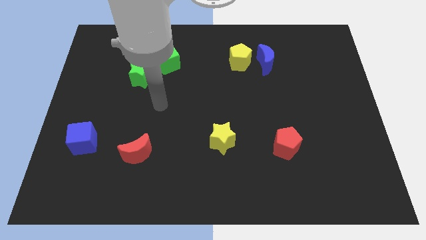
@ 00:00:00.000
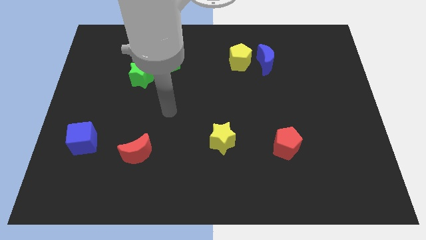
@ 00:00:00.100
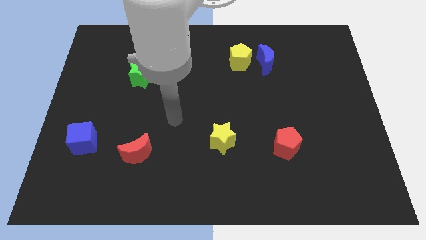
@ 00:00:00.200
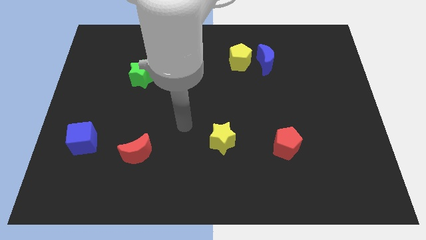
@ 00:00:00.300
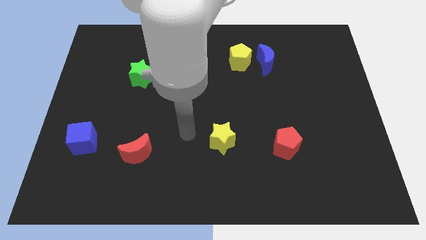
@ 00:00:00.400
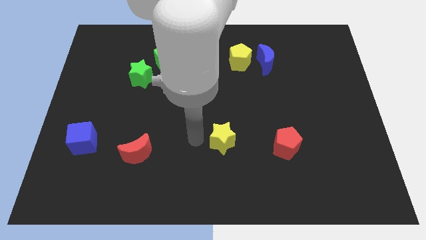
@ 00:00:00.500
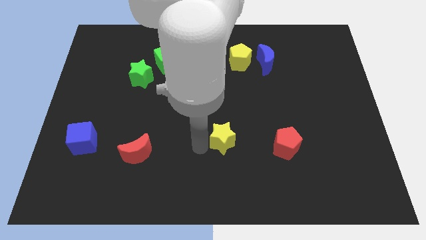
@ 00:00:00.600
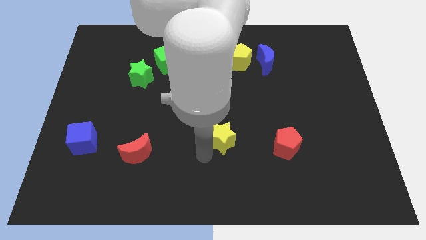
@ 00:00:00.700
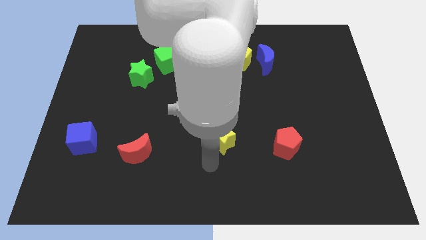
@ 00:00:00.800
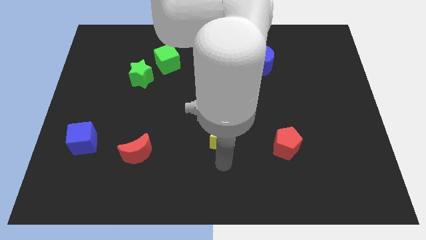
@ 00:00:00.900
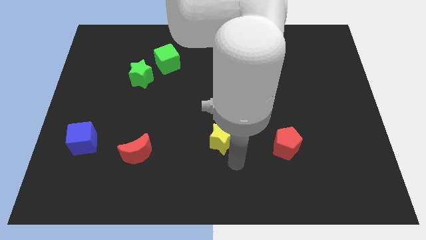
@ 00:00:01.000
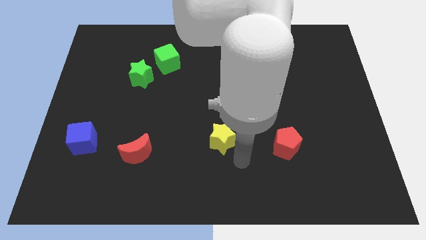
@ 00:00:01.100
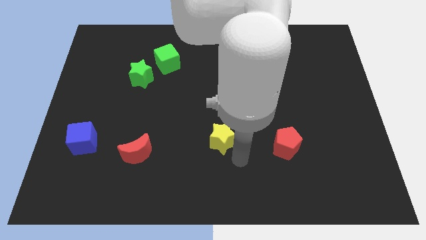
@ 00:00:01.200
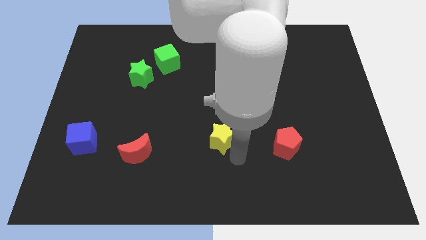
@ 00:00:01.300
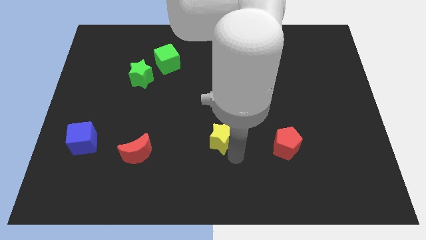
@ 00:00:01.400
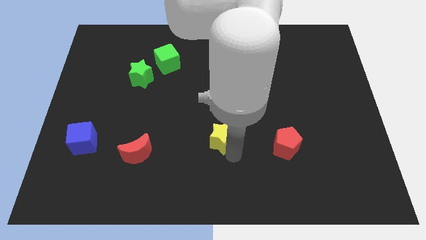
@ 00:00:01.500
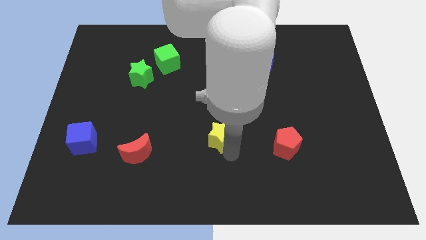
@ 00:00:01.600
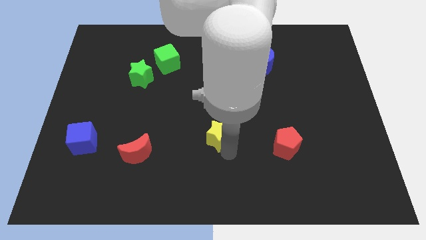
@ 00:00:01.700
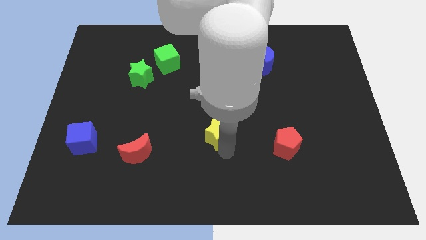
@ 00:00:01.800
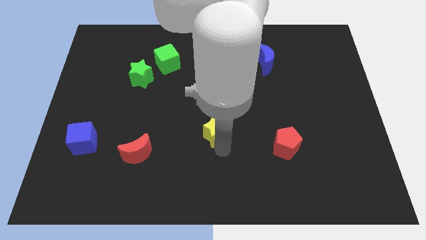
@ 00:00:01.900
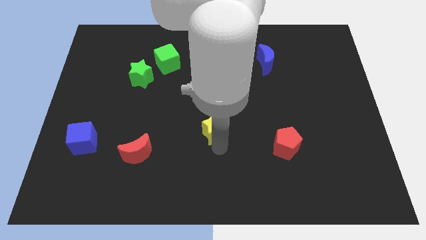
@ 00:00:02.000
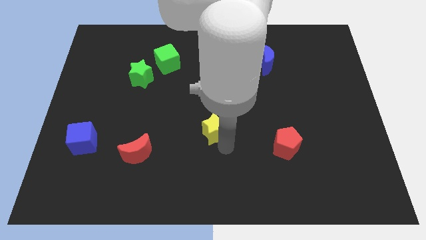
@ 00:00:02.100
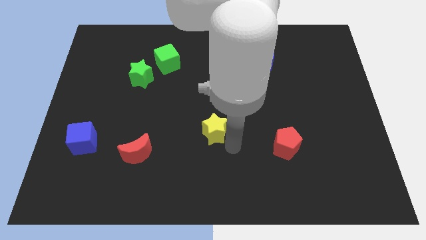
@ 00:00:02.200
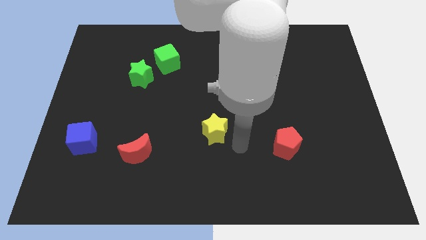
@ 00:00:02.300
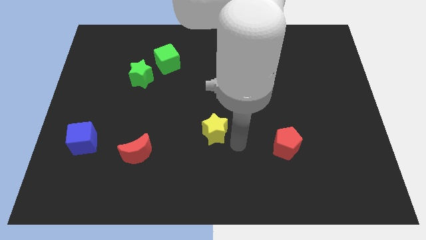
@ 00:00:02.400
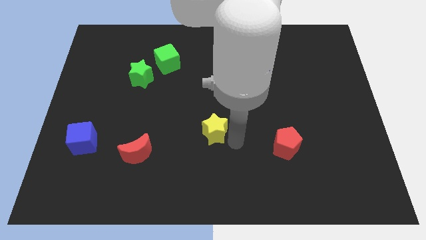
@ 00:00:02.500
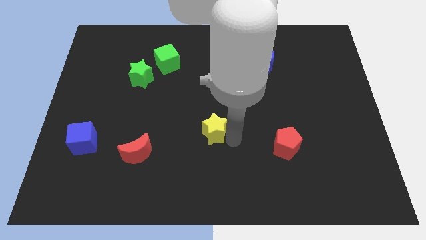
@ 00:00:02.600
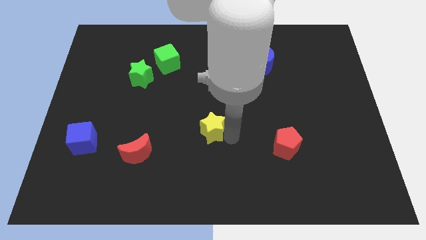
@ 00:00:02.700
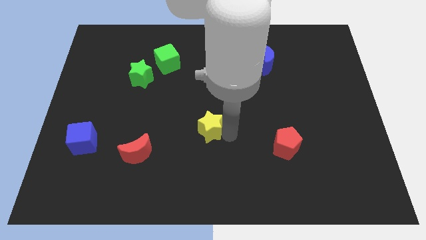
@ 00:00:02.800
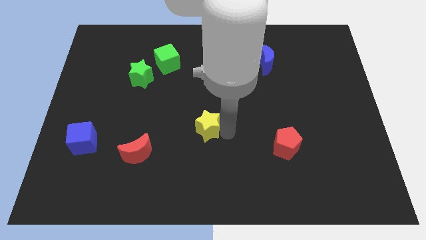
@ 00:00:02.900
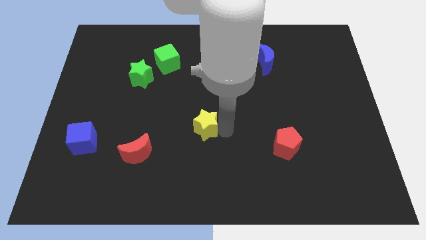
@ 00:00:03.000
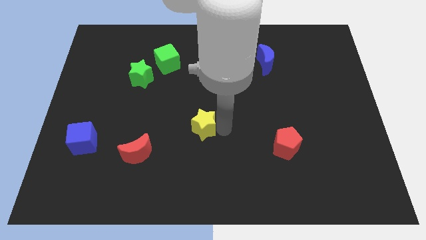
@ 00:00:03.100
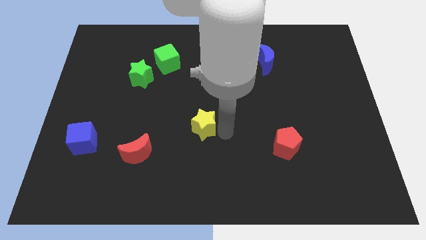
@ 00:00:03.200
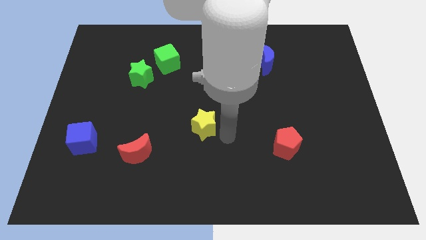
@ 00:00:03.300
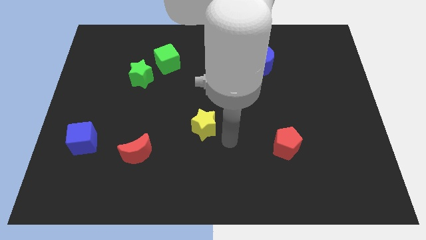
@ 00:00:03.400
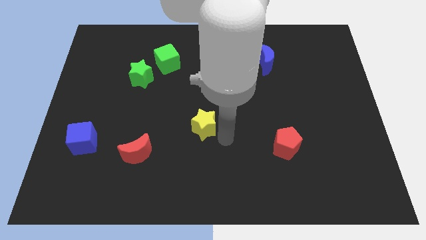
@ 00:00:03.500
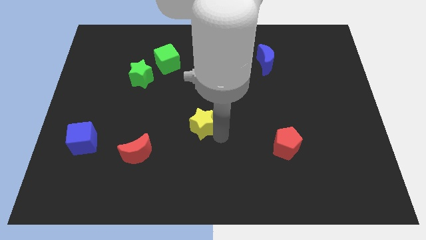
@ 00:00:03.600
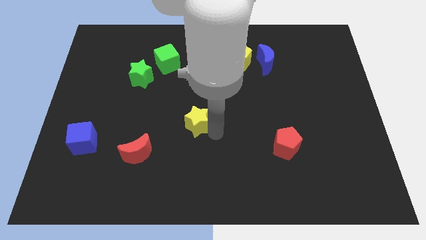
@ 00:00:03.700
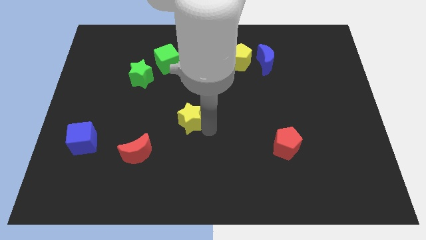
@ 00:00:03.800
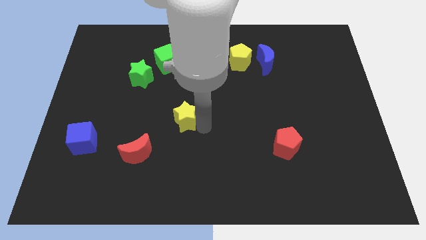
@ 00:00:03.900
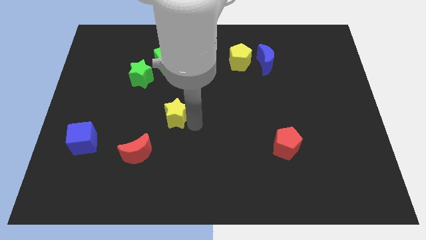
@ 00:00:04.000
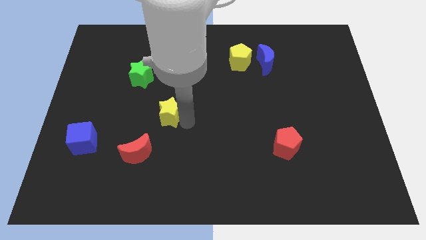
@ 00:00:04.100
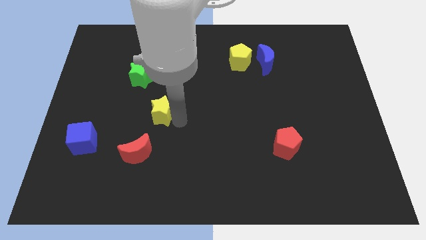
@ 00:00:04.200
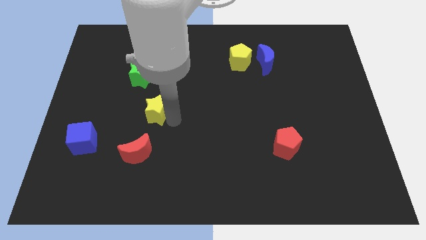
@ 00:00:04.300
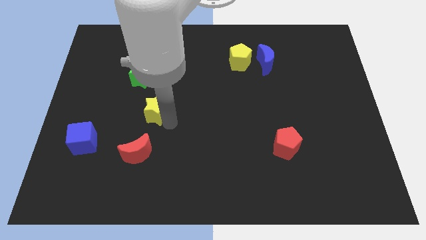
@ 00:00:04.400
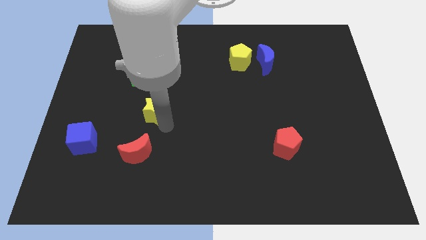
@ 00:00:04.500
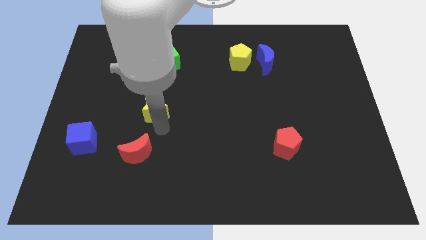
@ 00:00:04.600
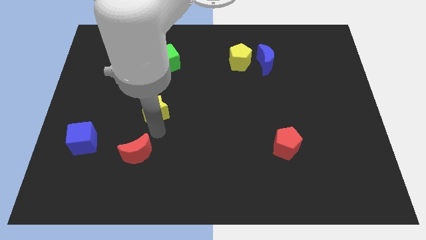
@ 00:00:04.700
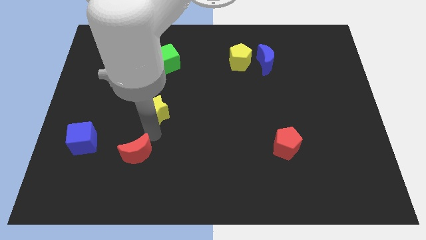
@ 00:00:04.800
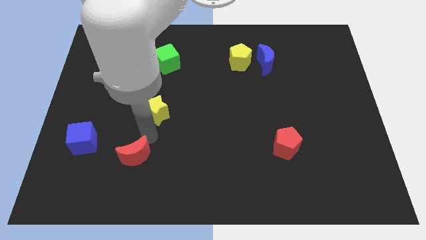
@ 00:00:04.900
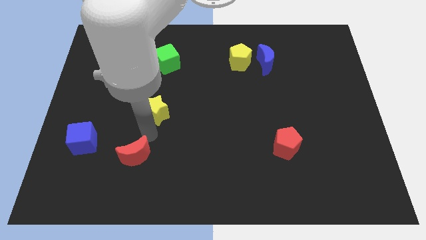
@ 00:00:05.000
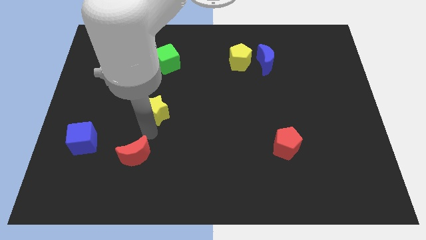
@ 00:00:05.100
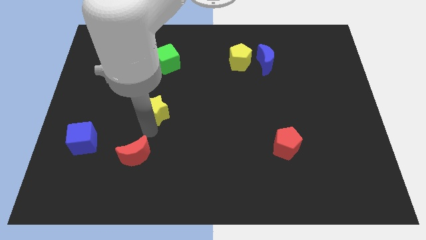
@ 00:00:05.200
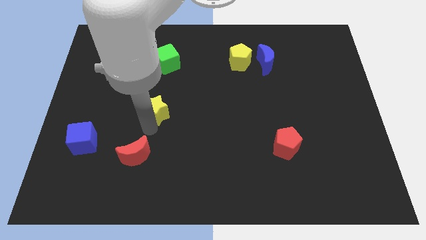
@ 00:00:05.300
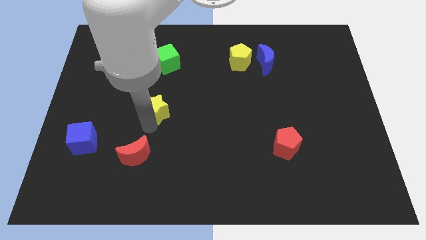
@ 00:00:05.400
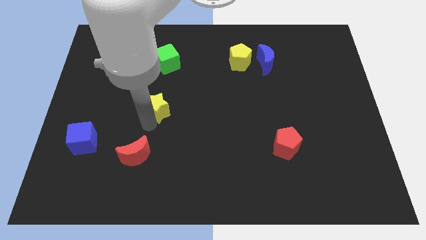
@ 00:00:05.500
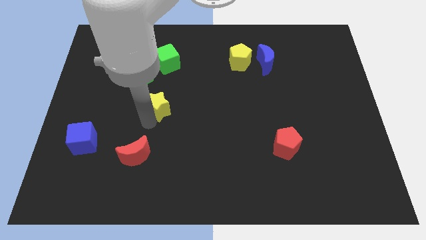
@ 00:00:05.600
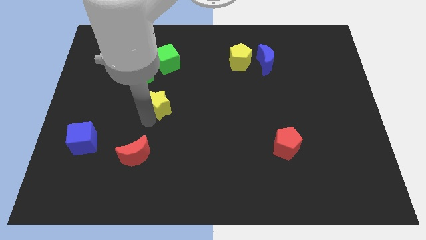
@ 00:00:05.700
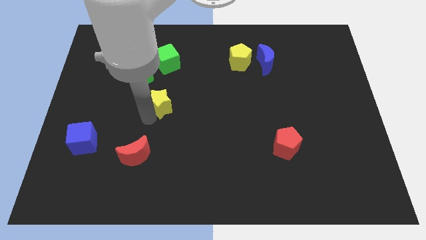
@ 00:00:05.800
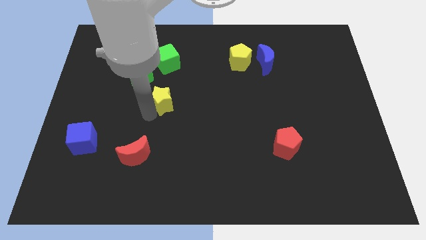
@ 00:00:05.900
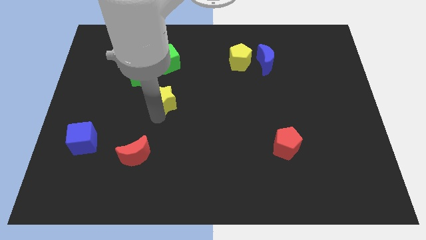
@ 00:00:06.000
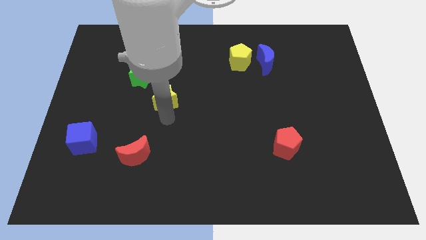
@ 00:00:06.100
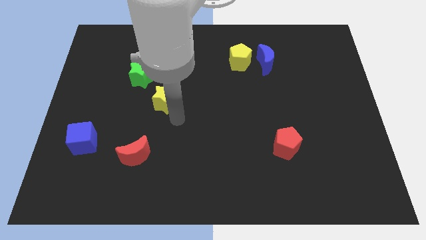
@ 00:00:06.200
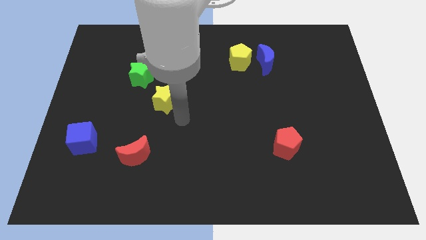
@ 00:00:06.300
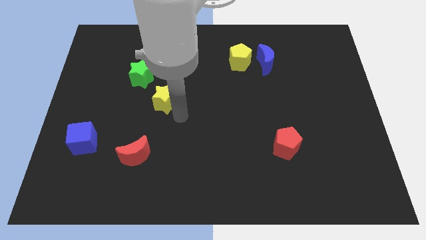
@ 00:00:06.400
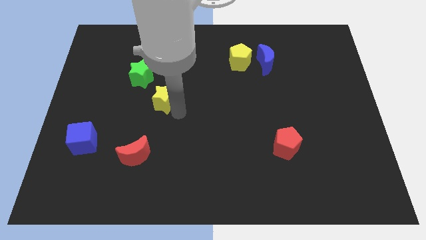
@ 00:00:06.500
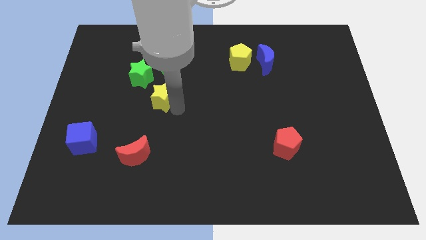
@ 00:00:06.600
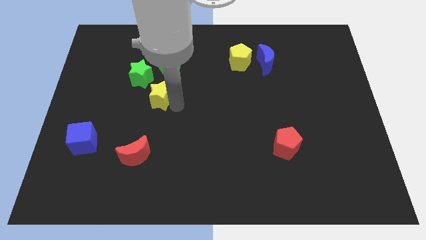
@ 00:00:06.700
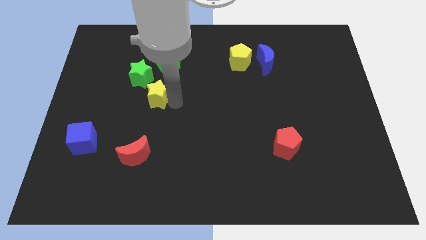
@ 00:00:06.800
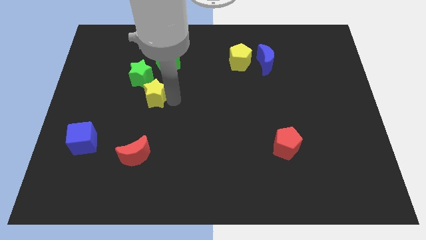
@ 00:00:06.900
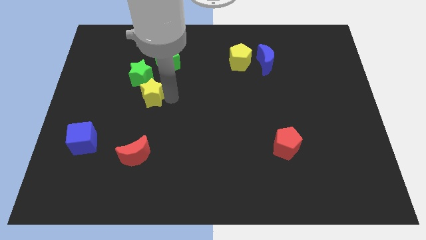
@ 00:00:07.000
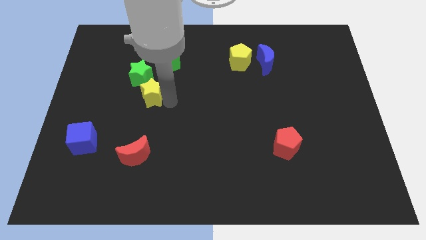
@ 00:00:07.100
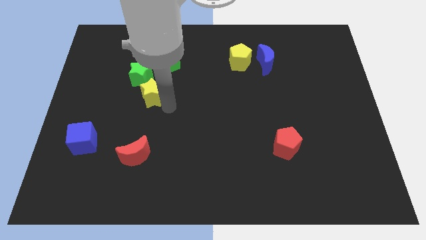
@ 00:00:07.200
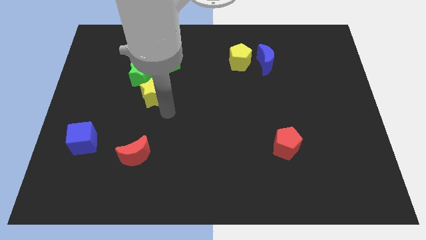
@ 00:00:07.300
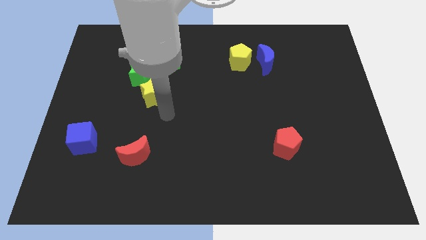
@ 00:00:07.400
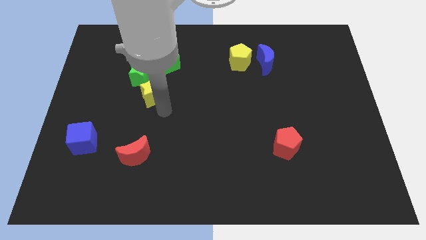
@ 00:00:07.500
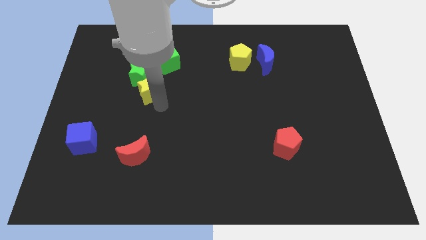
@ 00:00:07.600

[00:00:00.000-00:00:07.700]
move the yellow star towards the green star
